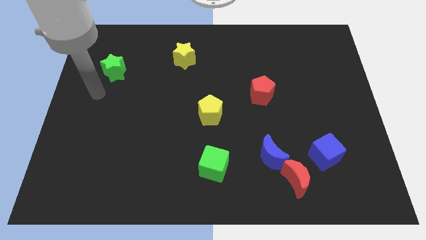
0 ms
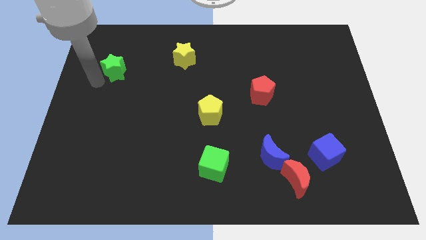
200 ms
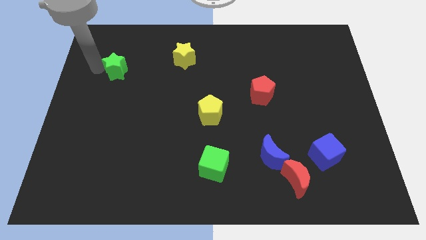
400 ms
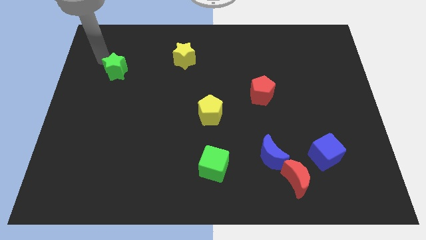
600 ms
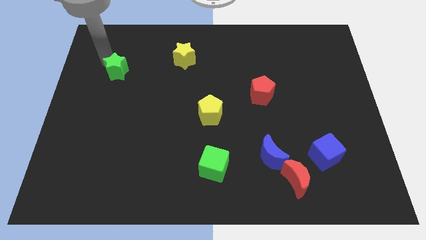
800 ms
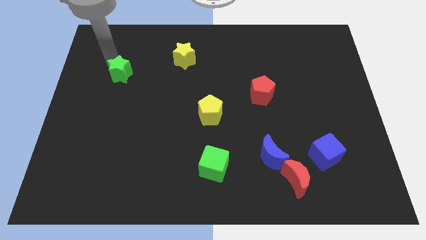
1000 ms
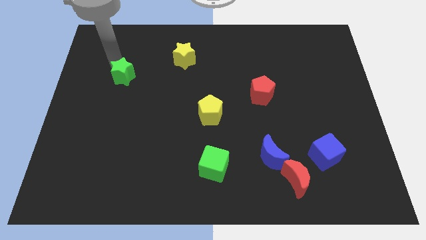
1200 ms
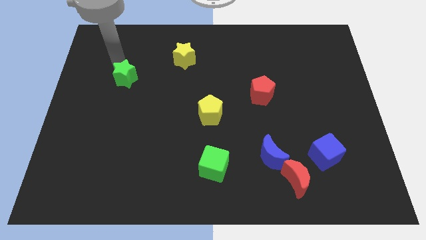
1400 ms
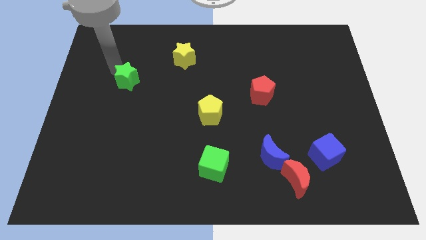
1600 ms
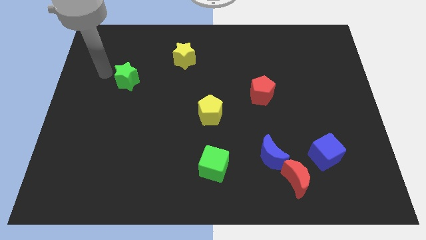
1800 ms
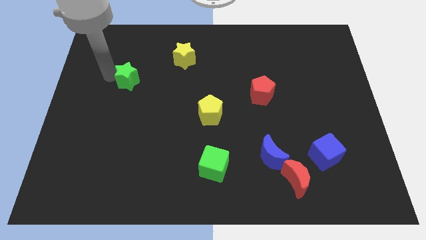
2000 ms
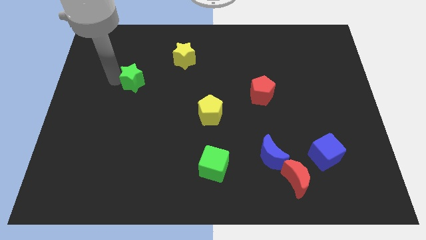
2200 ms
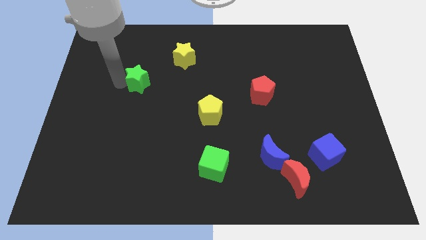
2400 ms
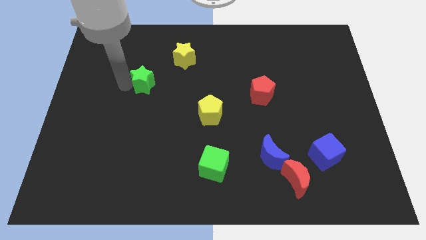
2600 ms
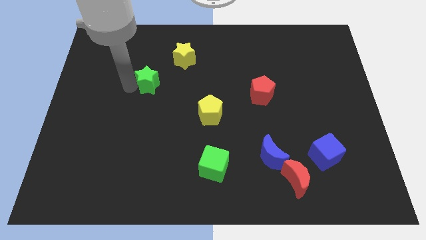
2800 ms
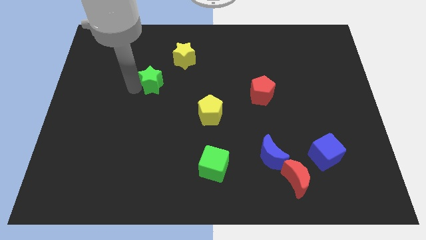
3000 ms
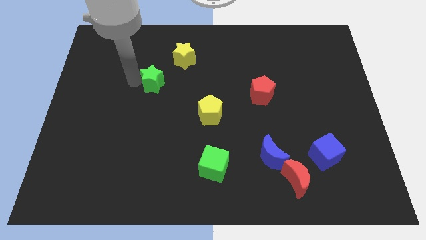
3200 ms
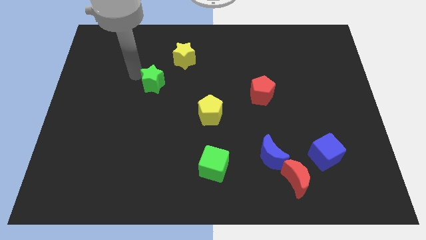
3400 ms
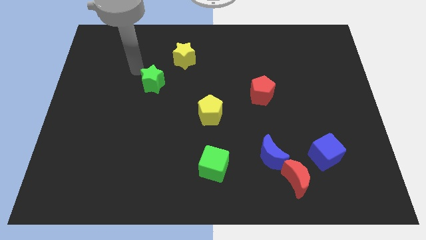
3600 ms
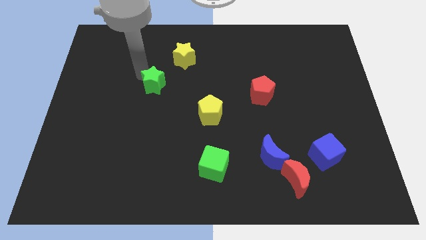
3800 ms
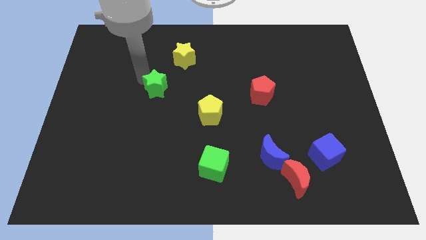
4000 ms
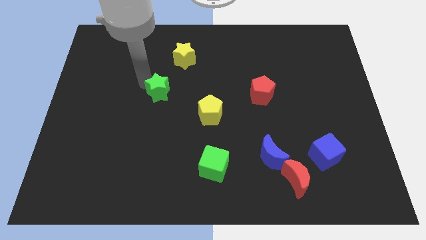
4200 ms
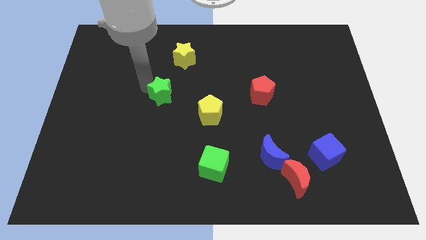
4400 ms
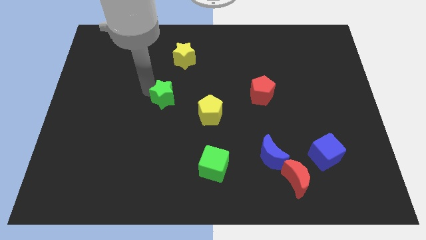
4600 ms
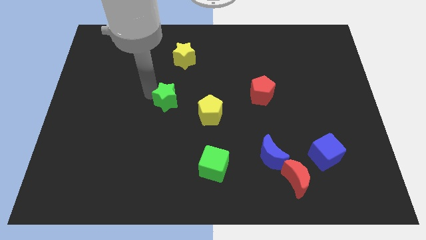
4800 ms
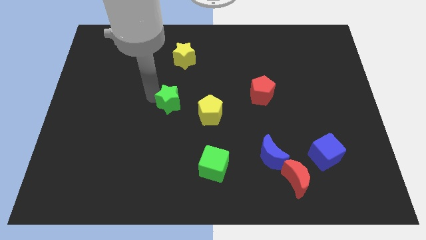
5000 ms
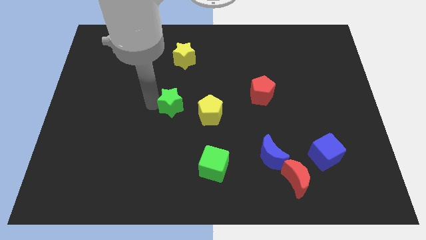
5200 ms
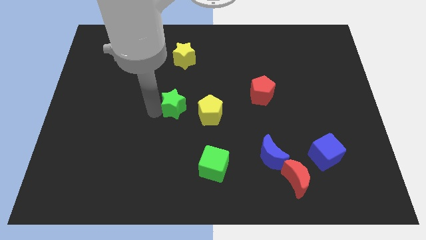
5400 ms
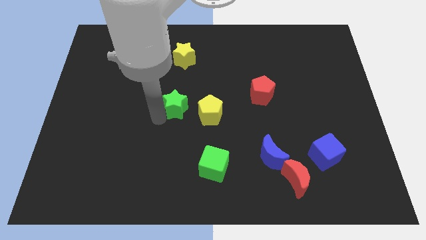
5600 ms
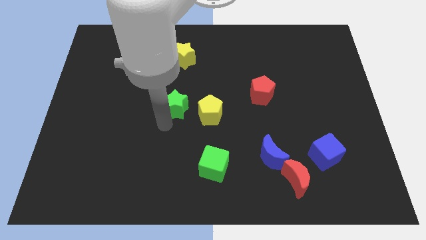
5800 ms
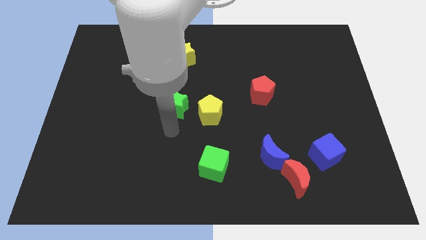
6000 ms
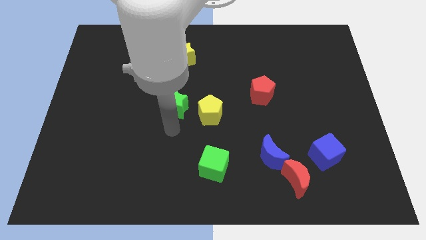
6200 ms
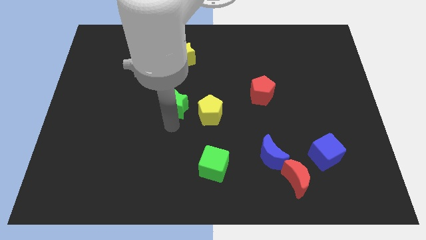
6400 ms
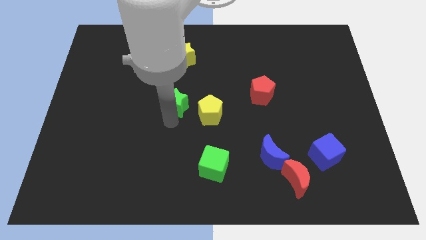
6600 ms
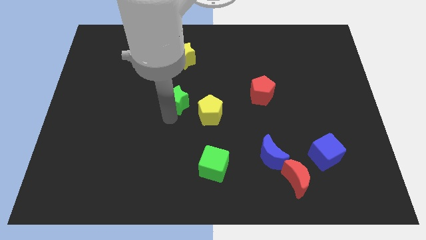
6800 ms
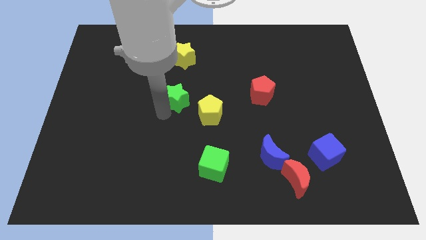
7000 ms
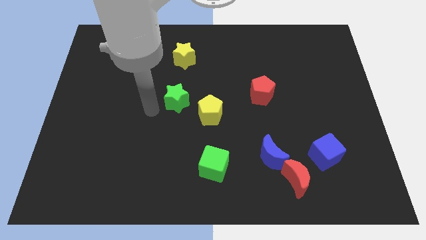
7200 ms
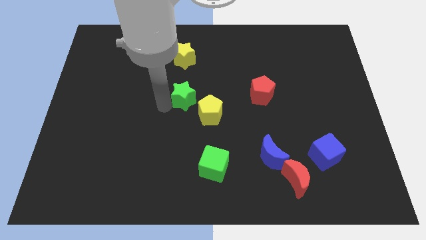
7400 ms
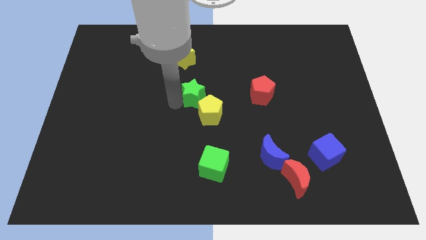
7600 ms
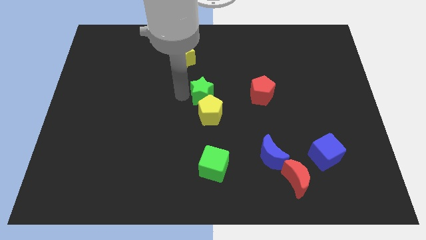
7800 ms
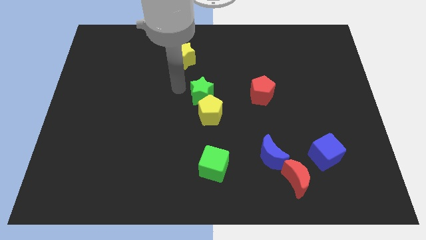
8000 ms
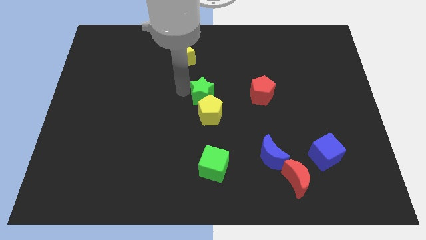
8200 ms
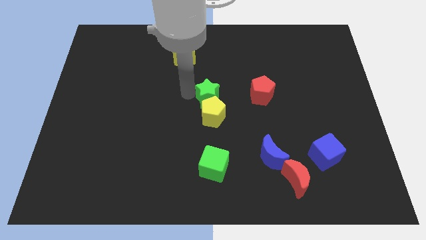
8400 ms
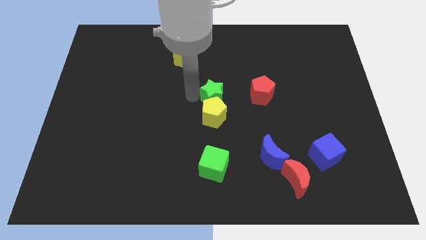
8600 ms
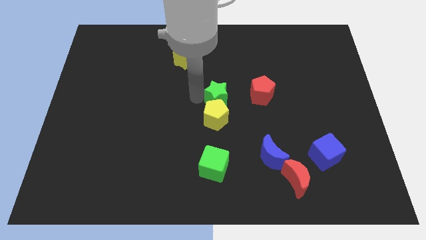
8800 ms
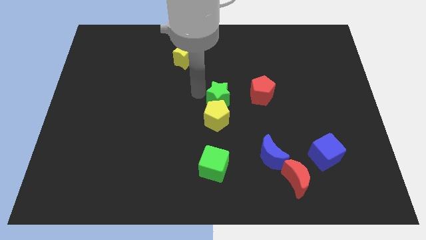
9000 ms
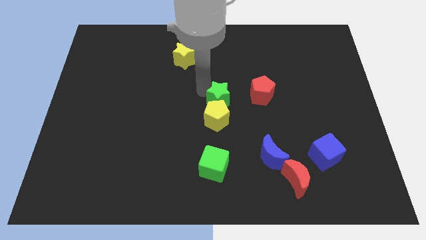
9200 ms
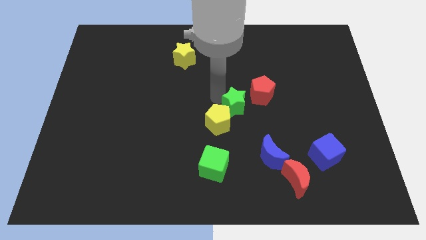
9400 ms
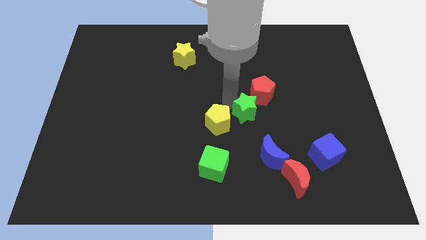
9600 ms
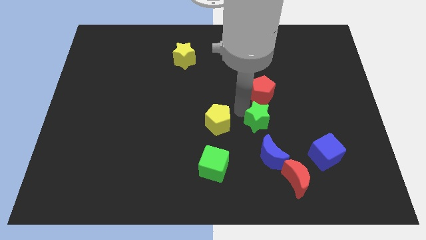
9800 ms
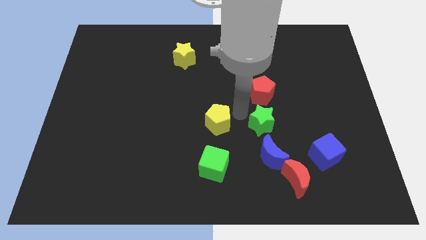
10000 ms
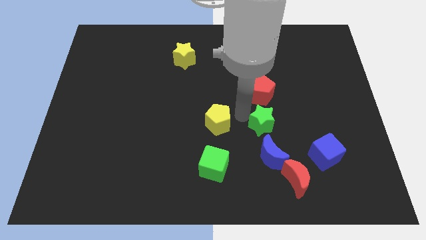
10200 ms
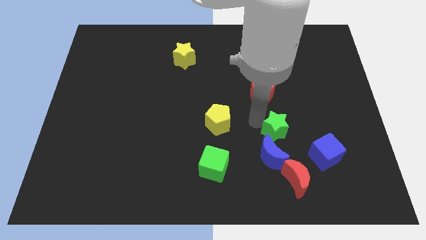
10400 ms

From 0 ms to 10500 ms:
slide the green star diagonally up and to the right of the blue moon

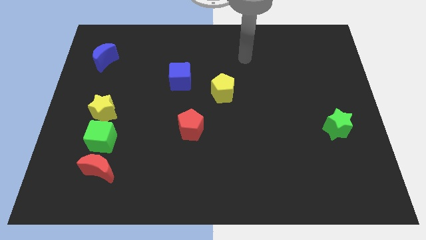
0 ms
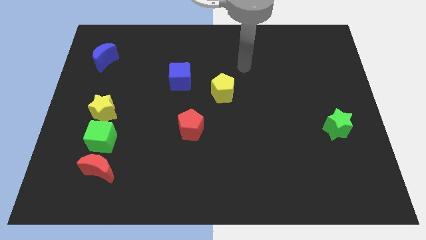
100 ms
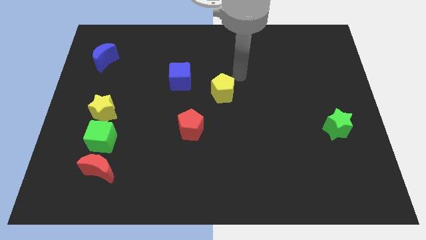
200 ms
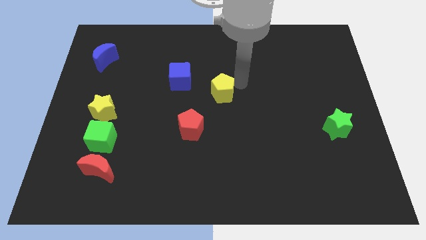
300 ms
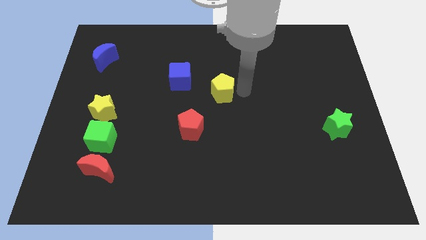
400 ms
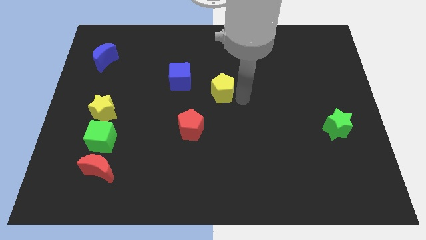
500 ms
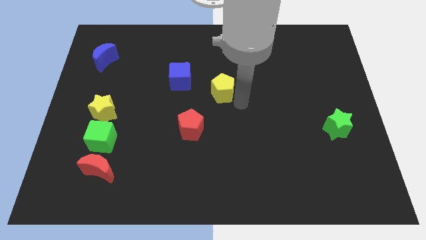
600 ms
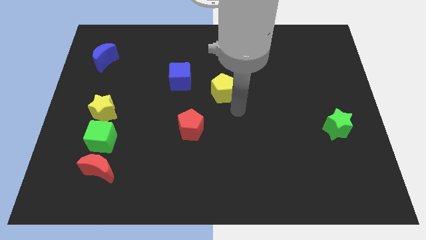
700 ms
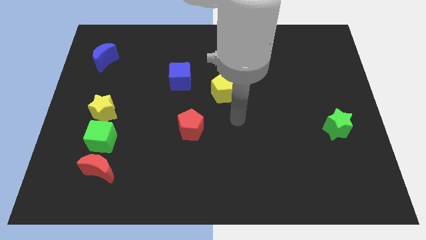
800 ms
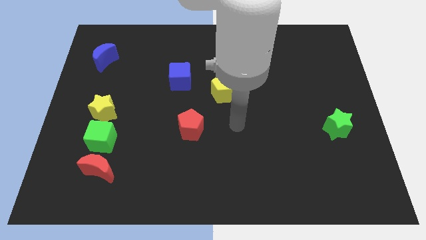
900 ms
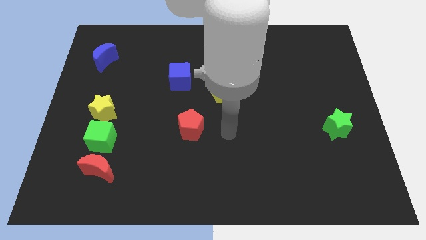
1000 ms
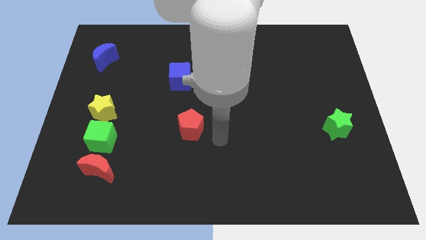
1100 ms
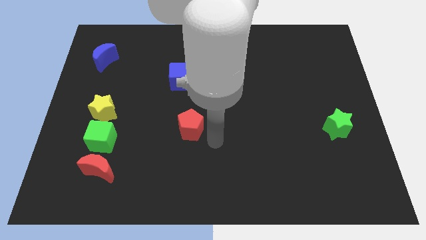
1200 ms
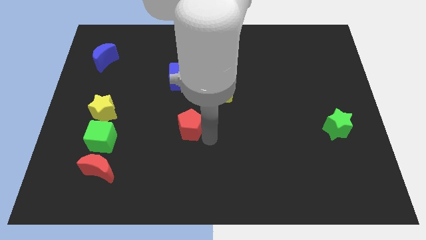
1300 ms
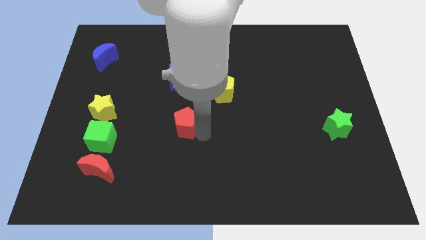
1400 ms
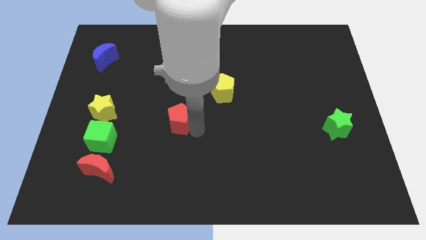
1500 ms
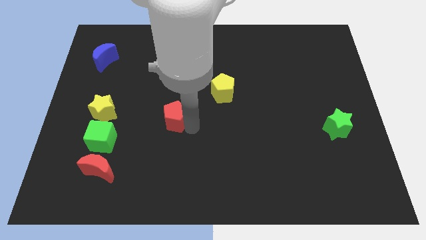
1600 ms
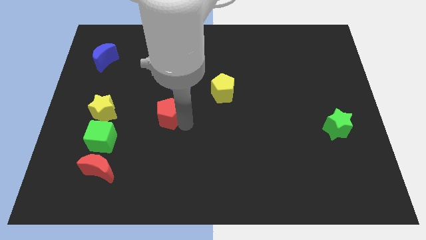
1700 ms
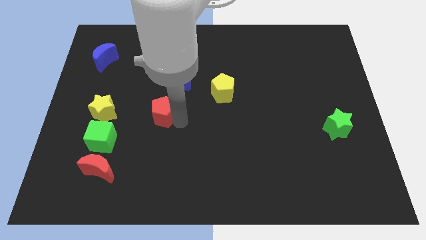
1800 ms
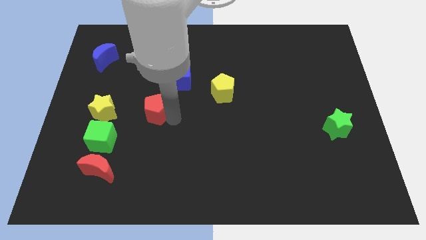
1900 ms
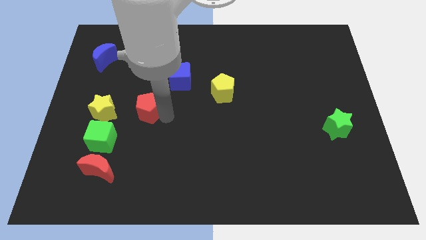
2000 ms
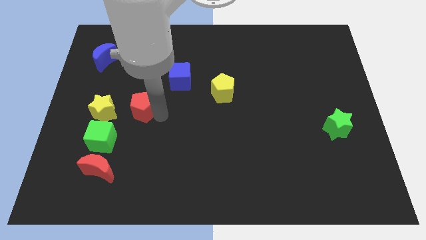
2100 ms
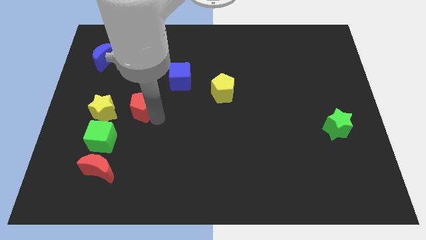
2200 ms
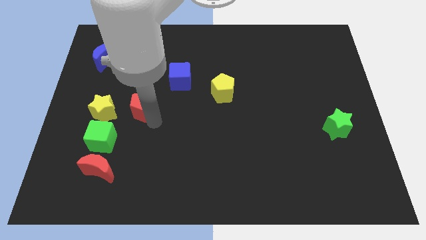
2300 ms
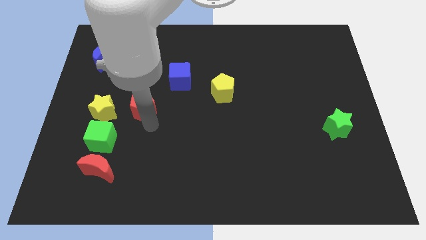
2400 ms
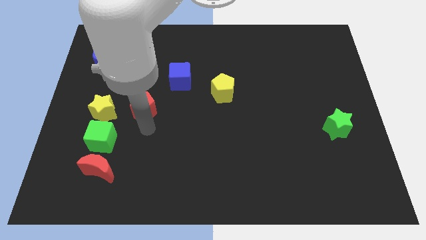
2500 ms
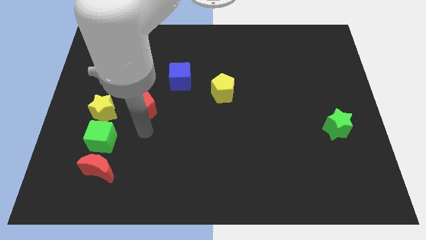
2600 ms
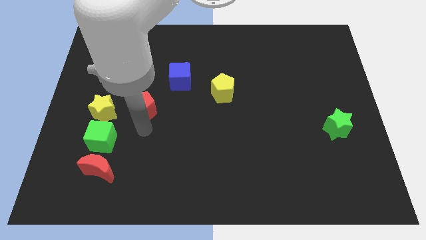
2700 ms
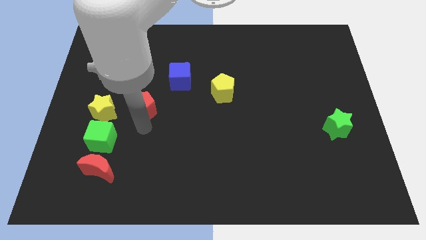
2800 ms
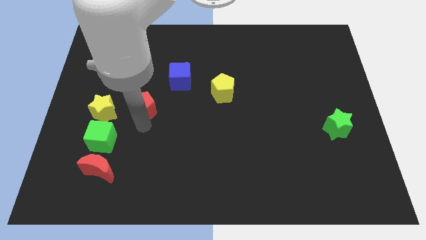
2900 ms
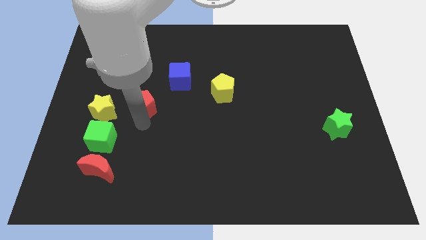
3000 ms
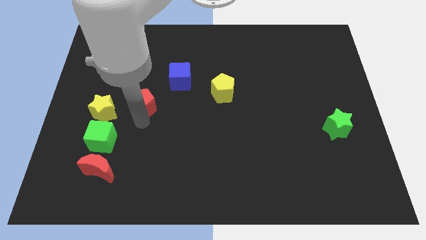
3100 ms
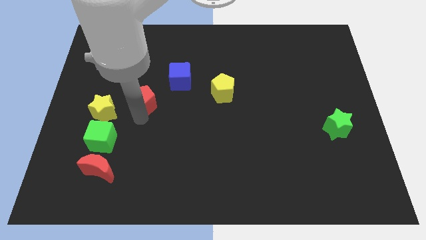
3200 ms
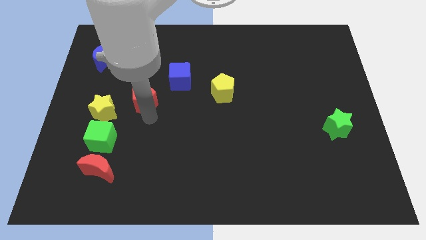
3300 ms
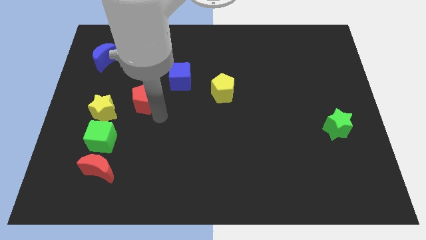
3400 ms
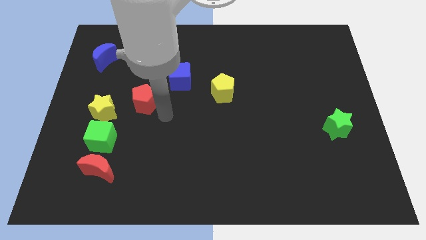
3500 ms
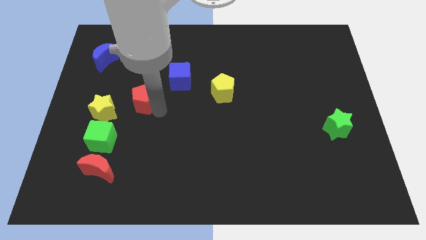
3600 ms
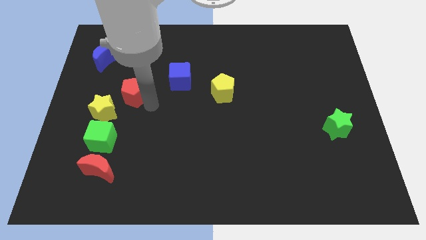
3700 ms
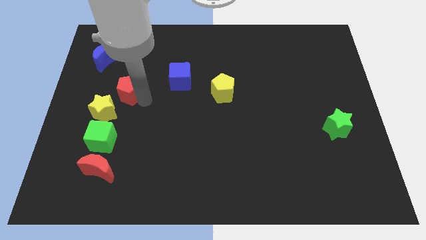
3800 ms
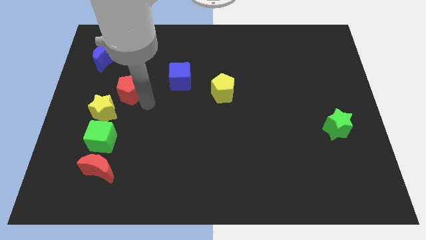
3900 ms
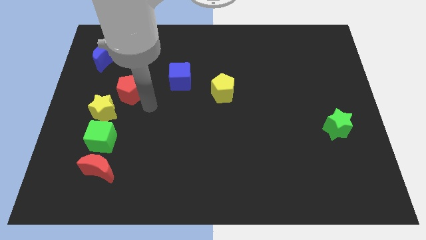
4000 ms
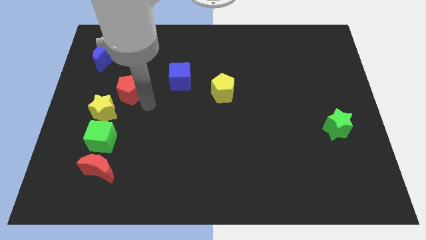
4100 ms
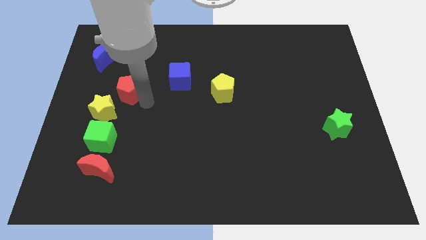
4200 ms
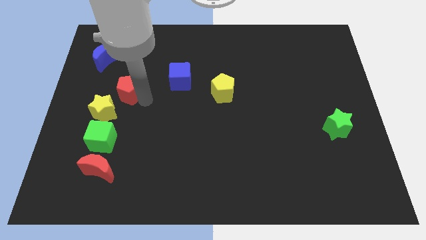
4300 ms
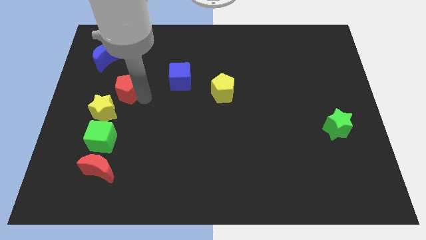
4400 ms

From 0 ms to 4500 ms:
put the red pentagon to the top of the yellow star
